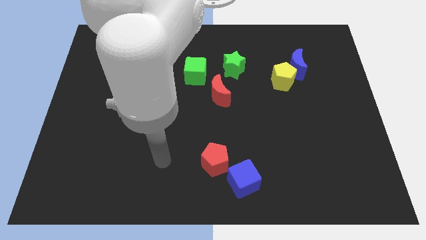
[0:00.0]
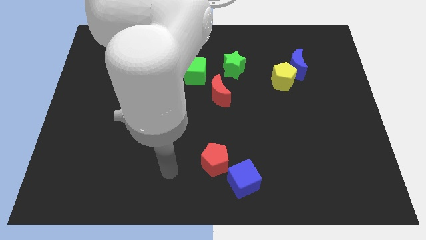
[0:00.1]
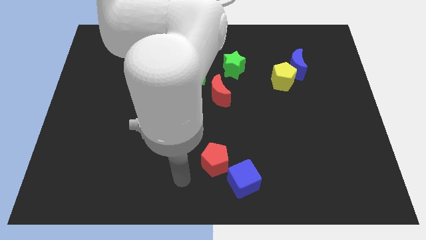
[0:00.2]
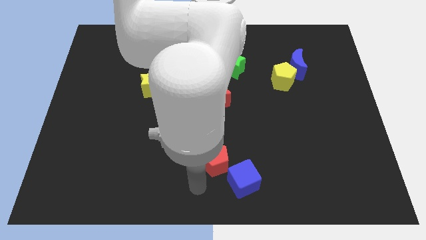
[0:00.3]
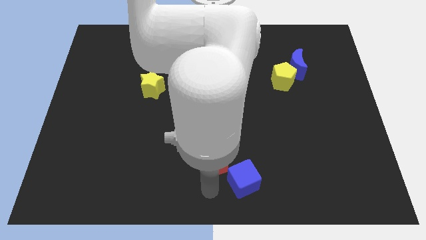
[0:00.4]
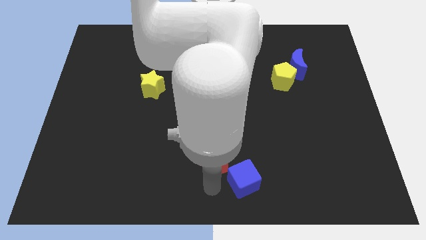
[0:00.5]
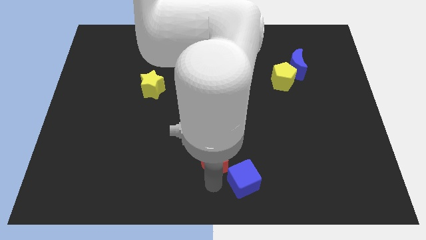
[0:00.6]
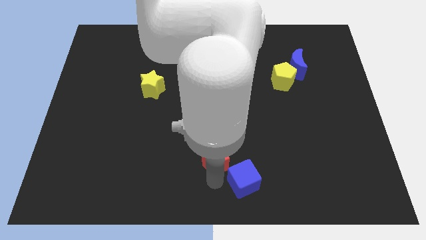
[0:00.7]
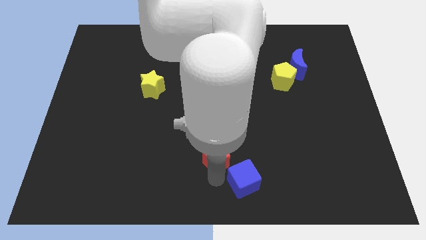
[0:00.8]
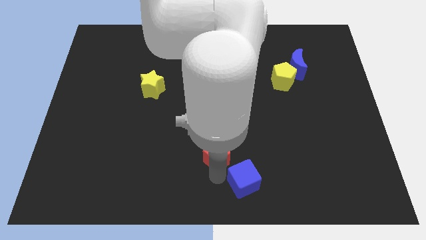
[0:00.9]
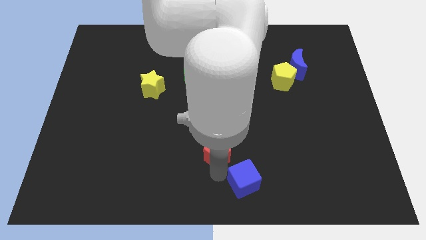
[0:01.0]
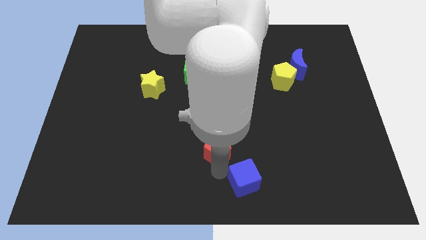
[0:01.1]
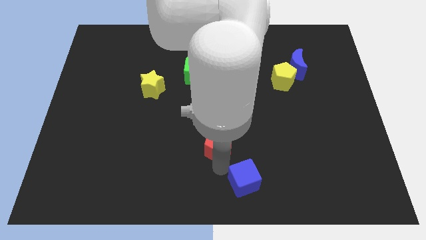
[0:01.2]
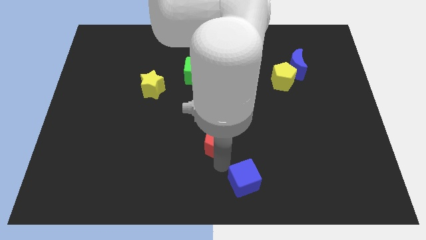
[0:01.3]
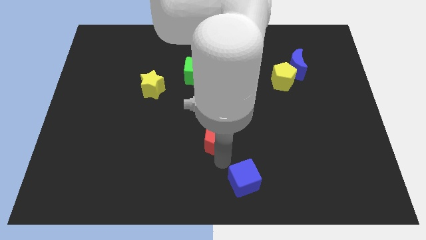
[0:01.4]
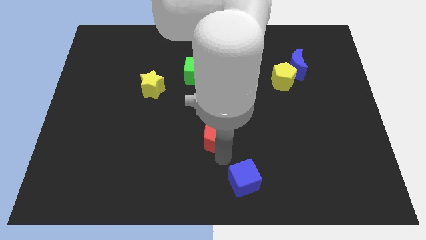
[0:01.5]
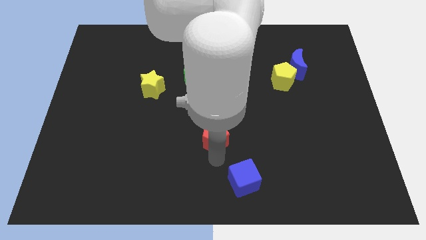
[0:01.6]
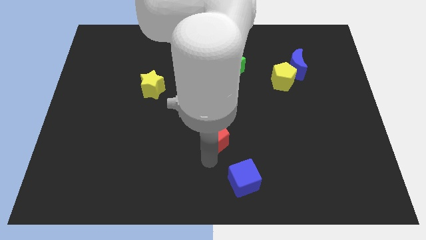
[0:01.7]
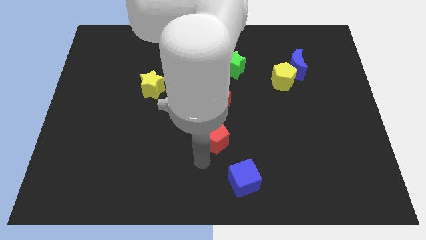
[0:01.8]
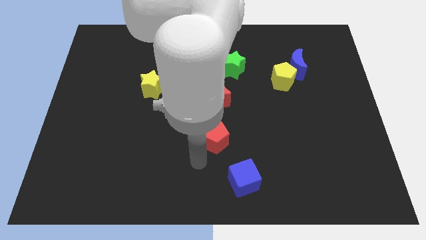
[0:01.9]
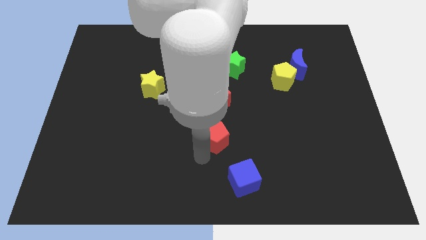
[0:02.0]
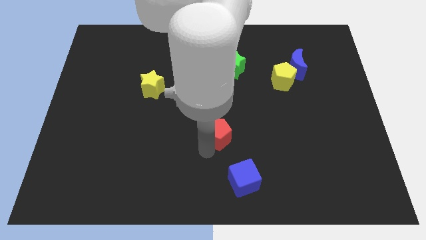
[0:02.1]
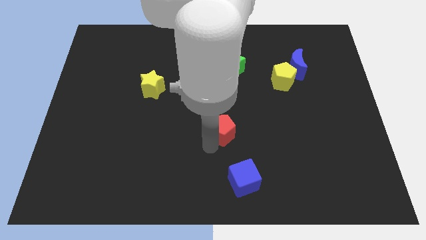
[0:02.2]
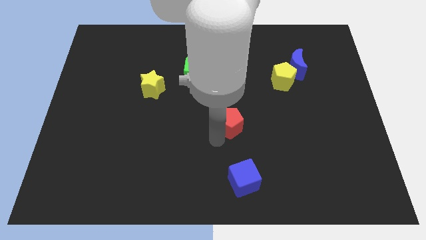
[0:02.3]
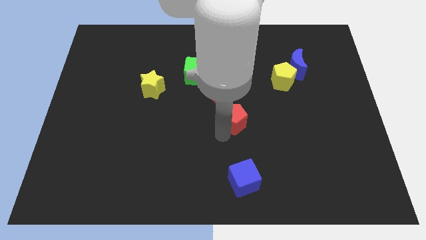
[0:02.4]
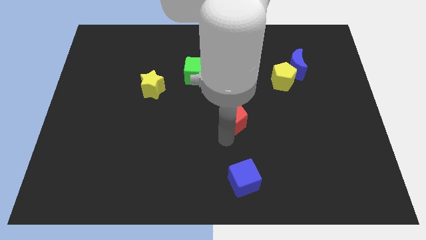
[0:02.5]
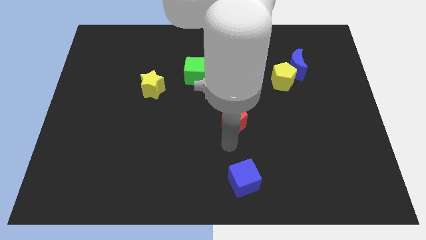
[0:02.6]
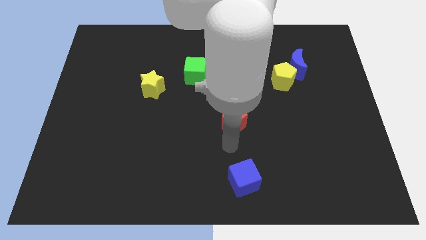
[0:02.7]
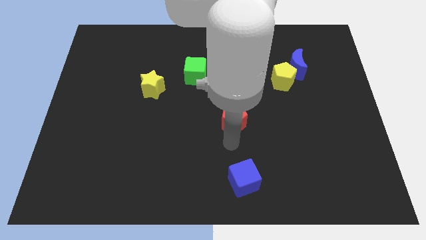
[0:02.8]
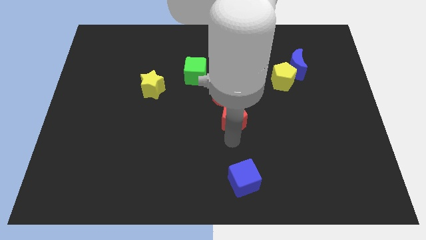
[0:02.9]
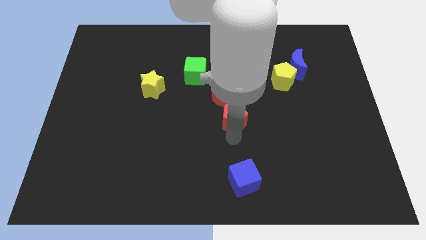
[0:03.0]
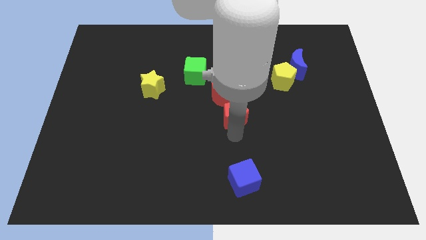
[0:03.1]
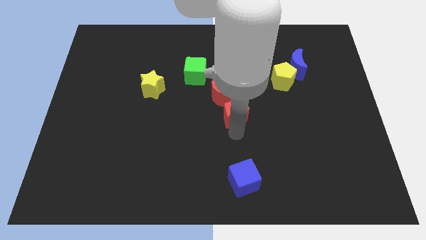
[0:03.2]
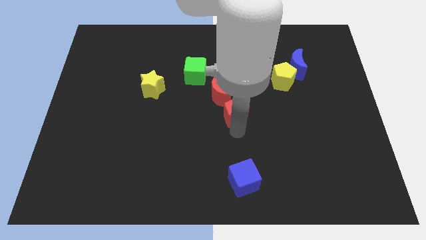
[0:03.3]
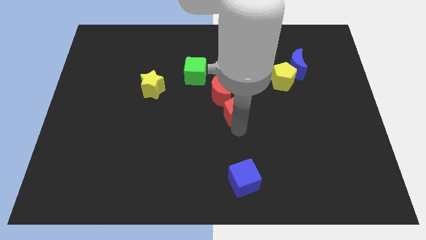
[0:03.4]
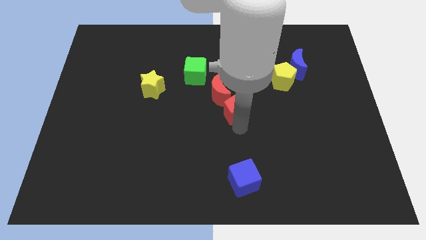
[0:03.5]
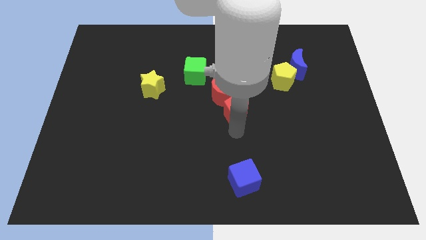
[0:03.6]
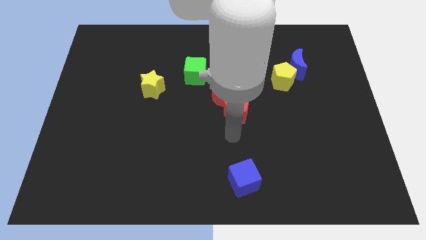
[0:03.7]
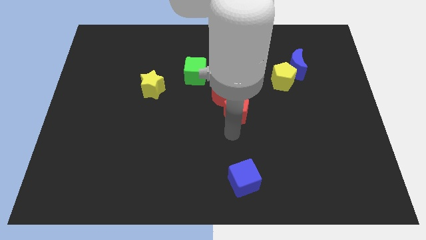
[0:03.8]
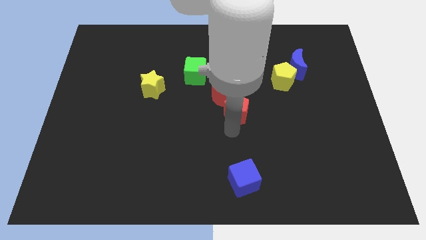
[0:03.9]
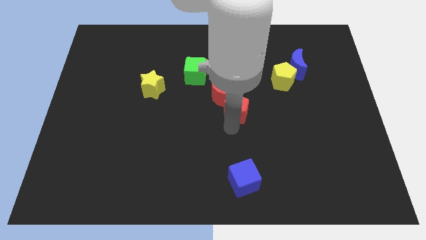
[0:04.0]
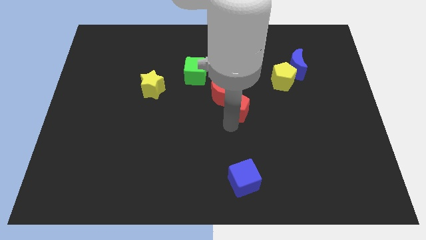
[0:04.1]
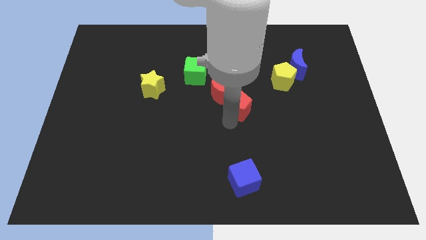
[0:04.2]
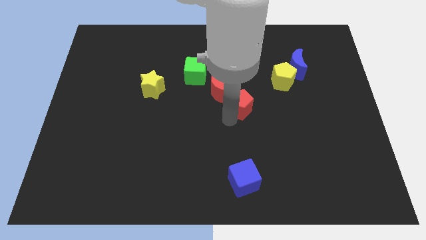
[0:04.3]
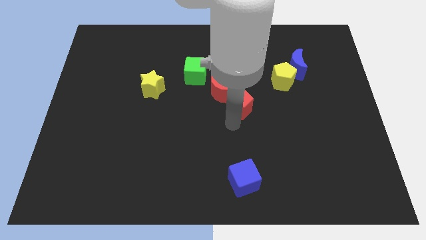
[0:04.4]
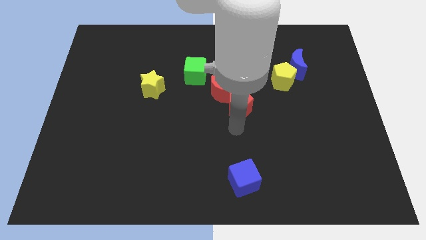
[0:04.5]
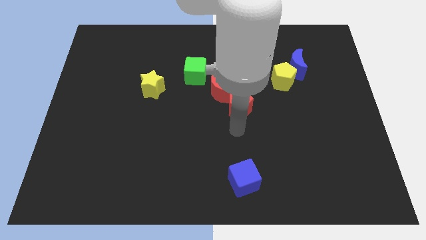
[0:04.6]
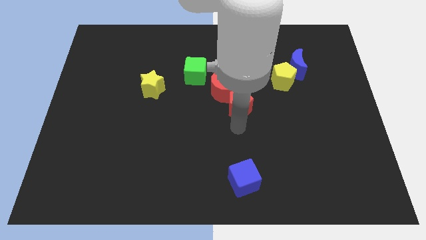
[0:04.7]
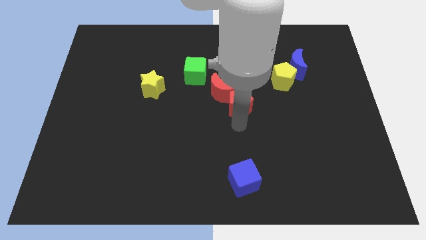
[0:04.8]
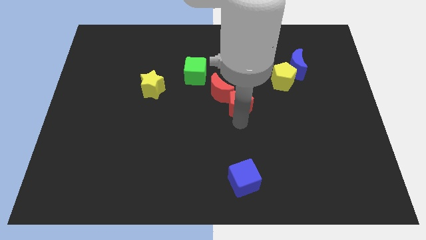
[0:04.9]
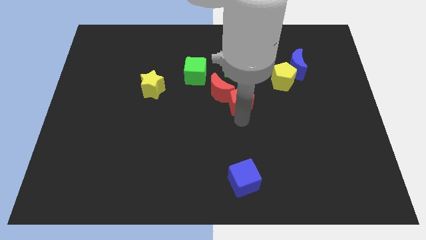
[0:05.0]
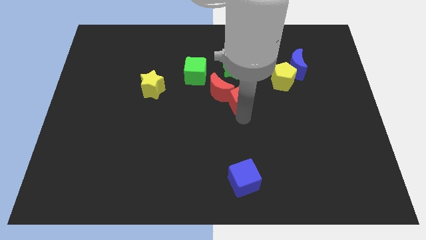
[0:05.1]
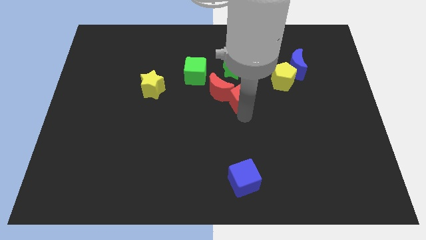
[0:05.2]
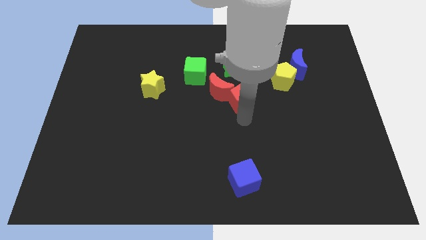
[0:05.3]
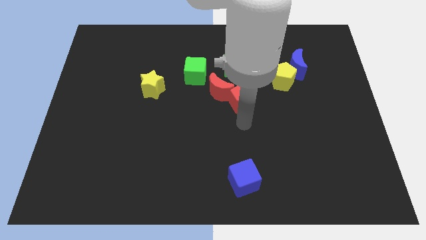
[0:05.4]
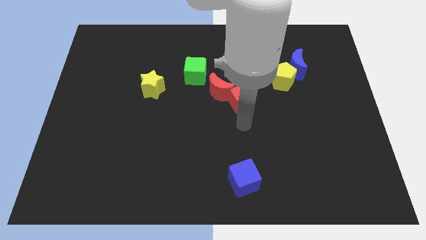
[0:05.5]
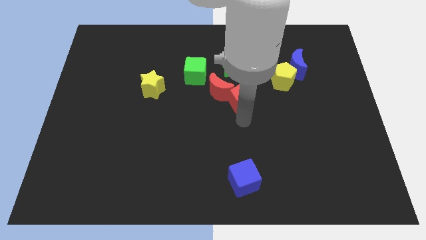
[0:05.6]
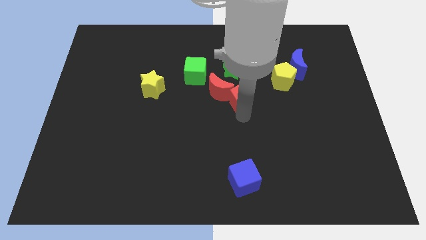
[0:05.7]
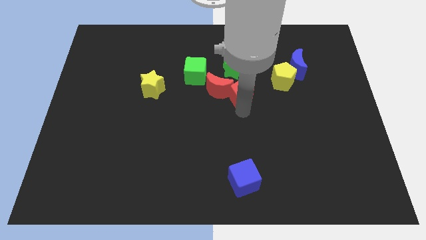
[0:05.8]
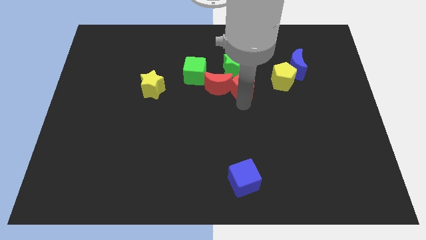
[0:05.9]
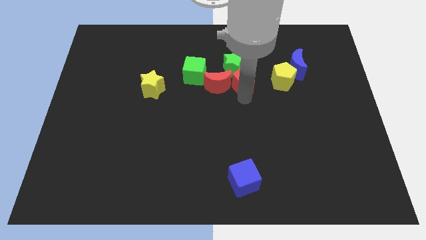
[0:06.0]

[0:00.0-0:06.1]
push the red pentagon close to the green star
